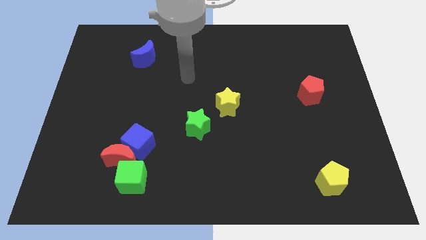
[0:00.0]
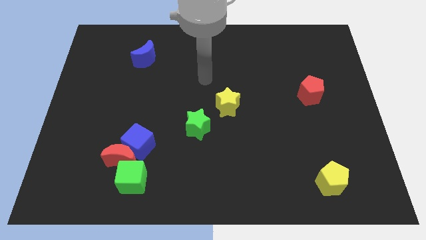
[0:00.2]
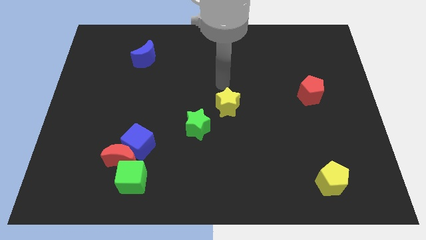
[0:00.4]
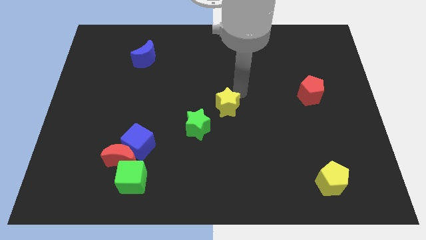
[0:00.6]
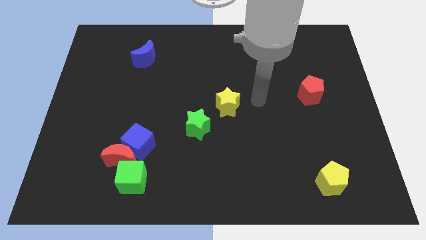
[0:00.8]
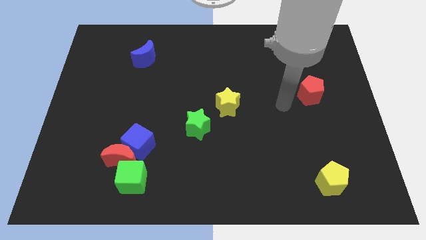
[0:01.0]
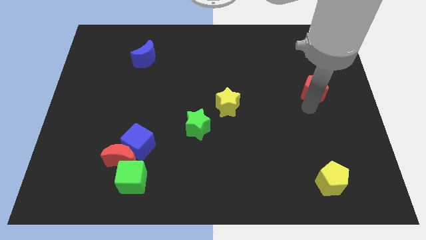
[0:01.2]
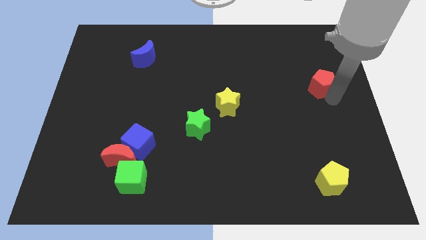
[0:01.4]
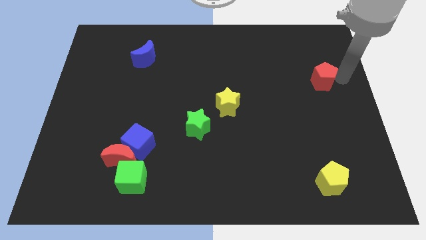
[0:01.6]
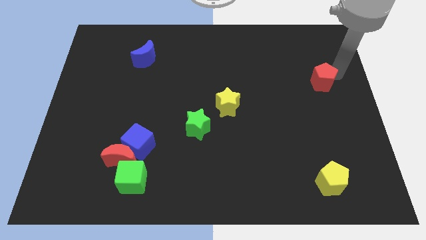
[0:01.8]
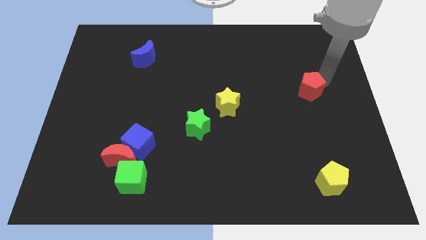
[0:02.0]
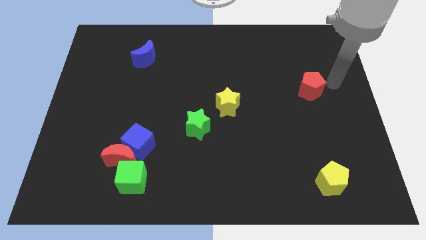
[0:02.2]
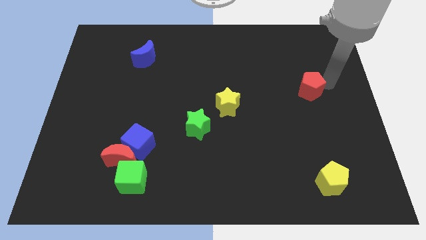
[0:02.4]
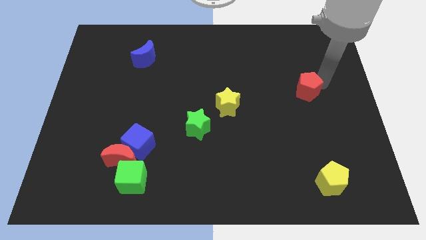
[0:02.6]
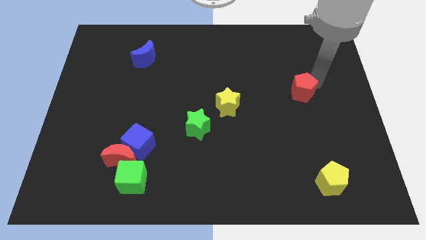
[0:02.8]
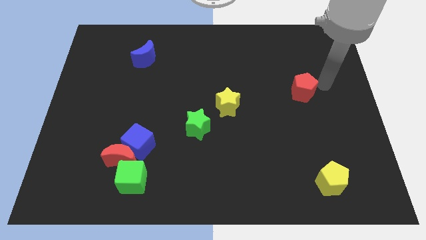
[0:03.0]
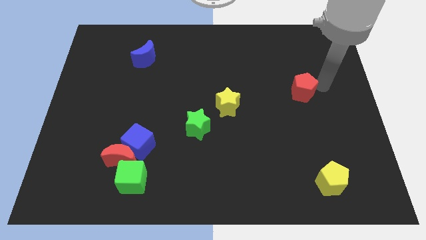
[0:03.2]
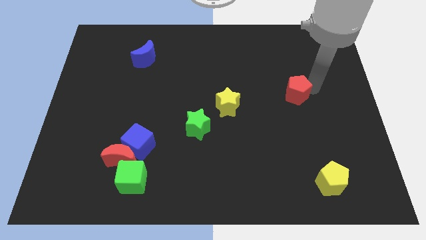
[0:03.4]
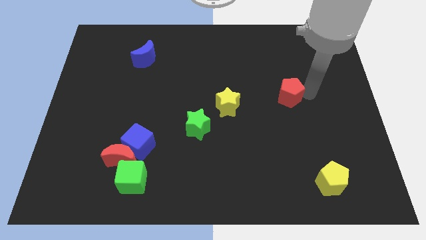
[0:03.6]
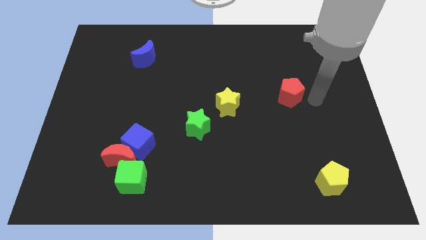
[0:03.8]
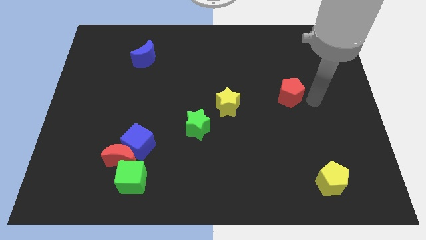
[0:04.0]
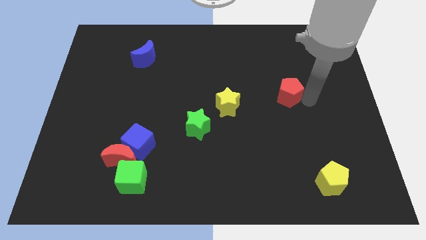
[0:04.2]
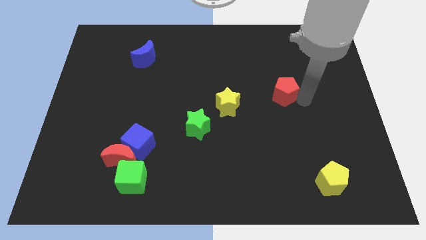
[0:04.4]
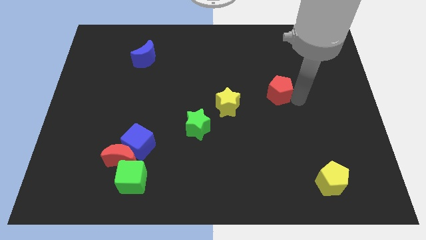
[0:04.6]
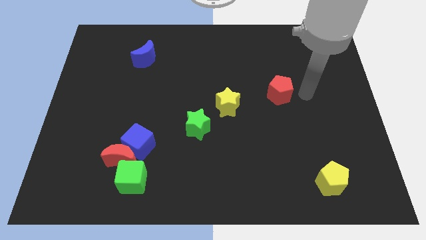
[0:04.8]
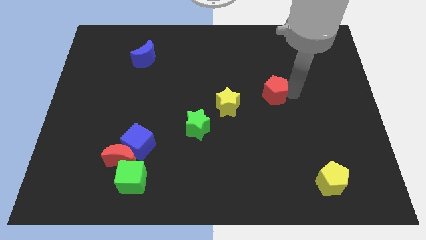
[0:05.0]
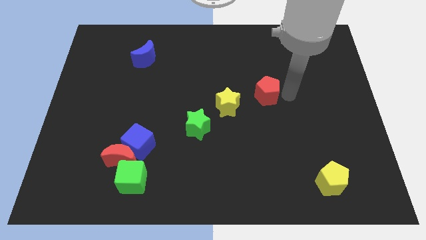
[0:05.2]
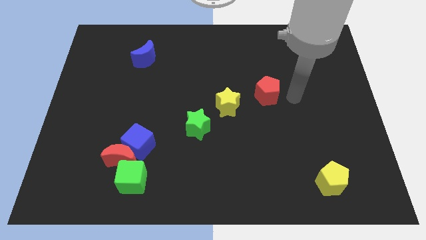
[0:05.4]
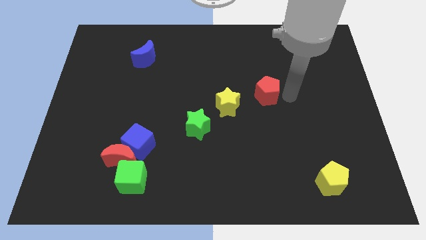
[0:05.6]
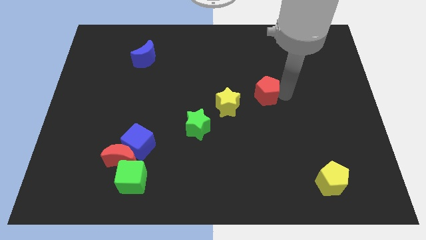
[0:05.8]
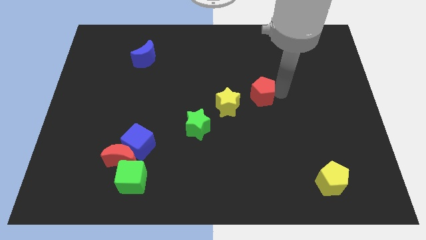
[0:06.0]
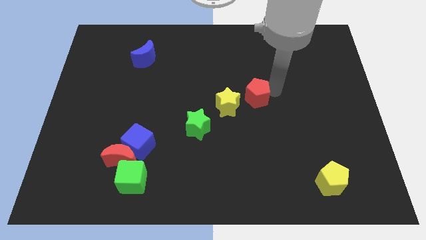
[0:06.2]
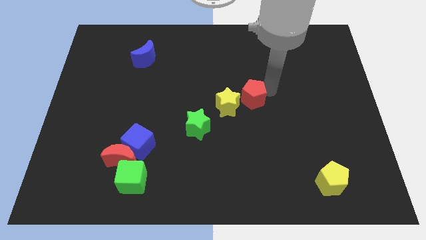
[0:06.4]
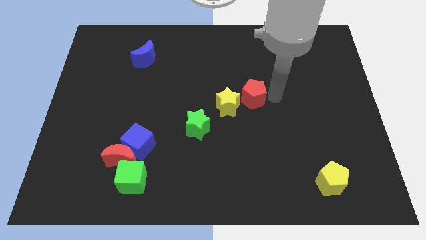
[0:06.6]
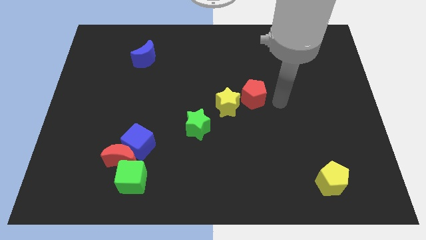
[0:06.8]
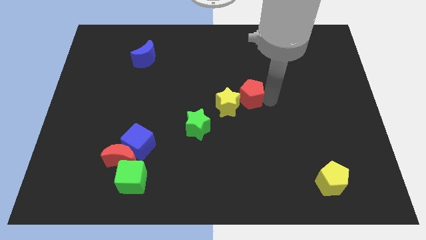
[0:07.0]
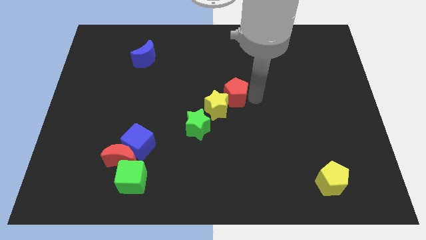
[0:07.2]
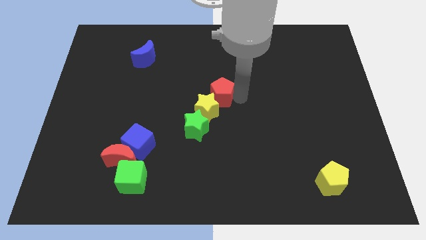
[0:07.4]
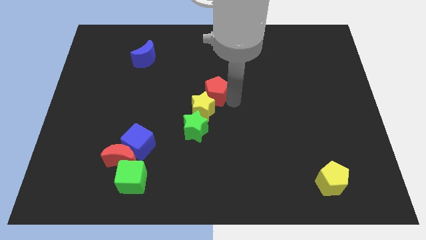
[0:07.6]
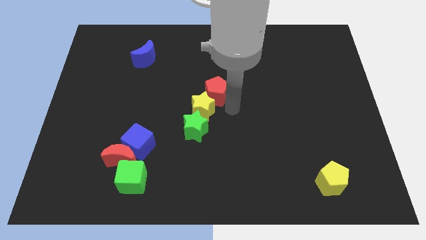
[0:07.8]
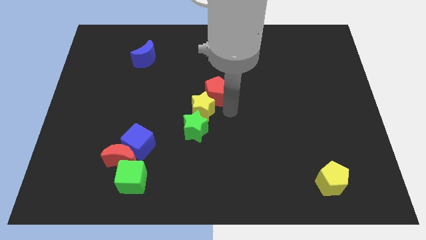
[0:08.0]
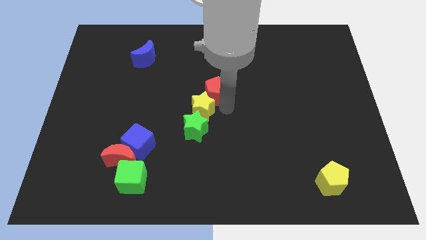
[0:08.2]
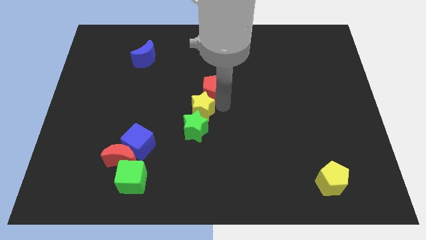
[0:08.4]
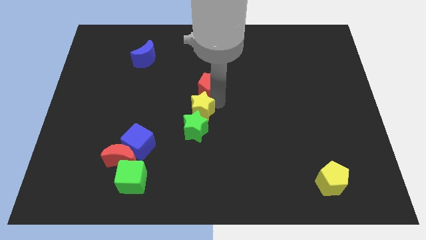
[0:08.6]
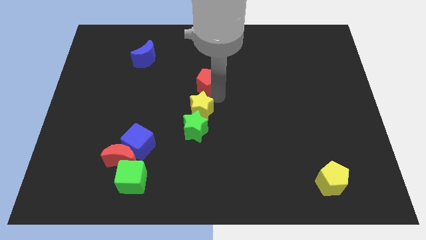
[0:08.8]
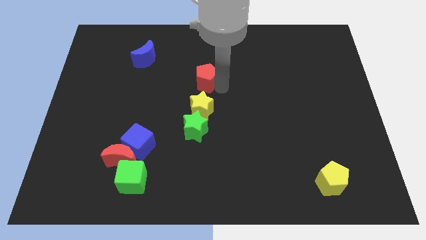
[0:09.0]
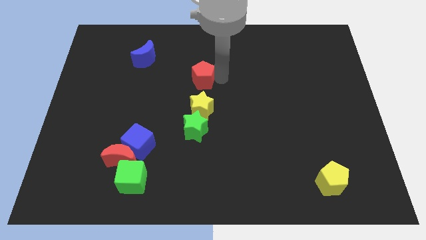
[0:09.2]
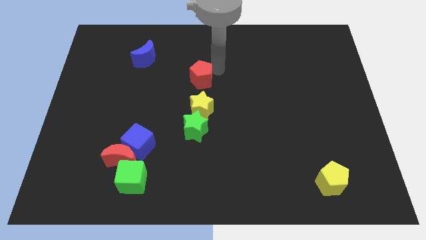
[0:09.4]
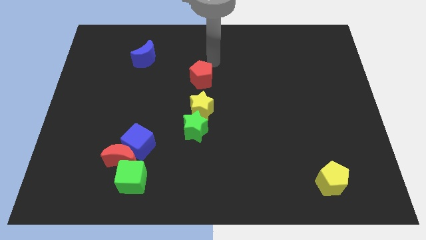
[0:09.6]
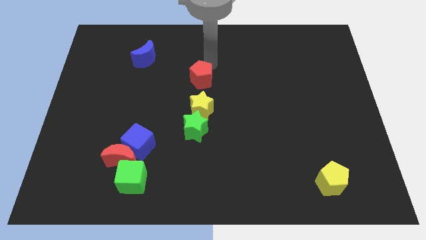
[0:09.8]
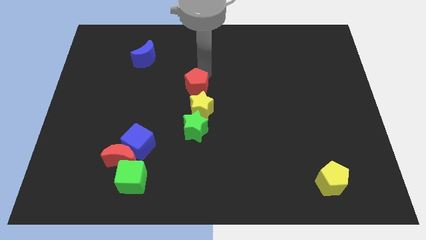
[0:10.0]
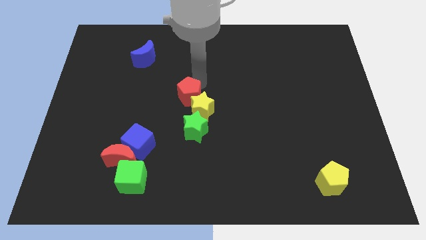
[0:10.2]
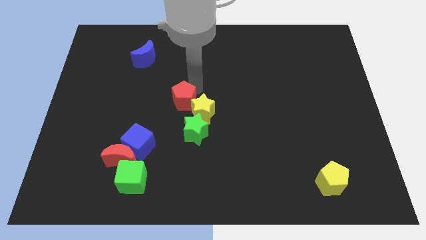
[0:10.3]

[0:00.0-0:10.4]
move the red pentagon diagonally up and to the left of the green star

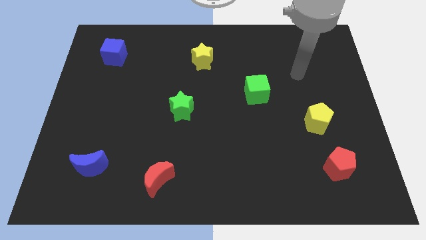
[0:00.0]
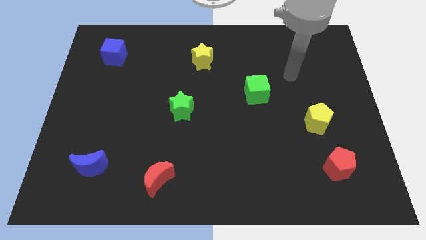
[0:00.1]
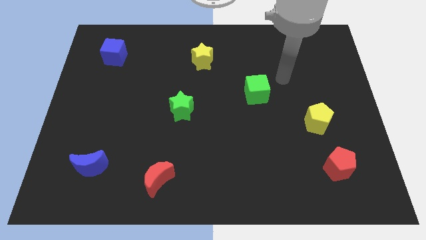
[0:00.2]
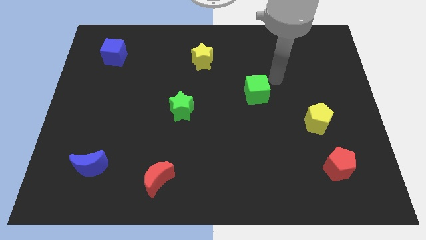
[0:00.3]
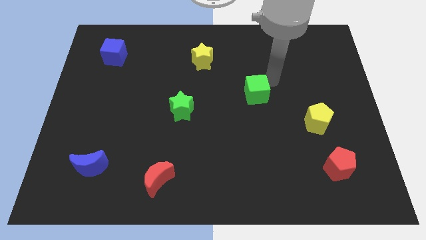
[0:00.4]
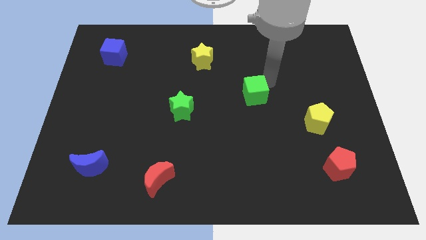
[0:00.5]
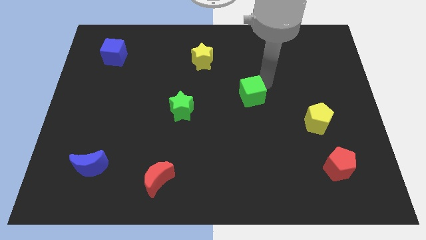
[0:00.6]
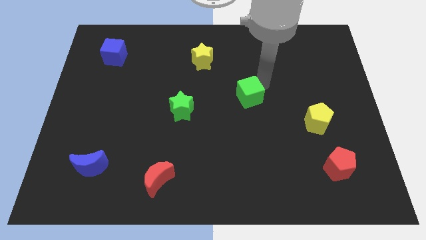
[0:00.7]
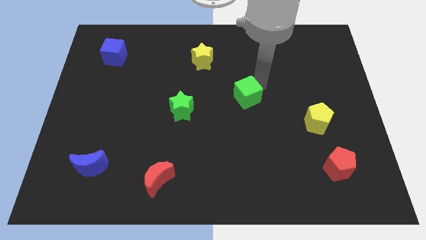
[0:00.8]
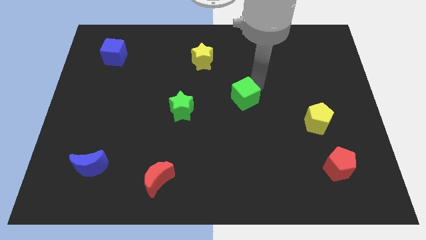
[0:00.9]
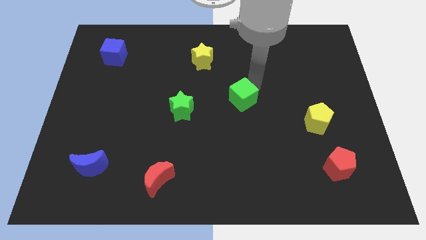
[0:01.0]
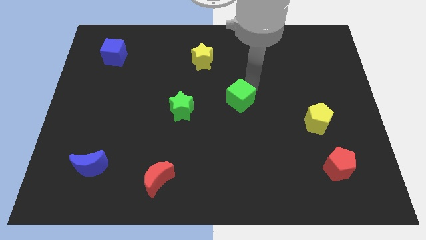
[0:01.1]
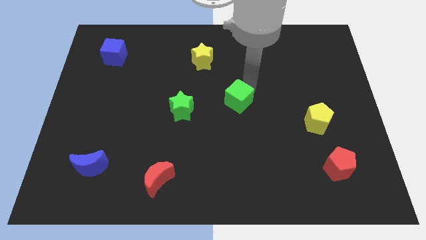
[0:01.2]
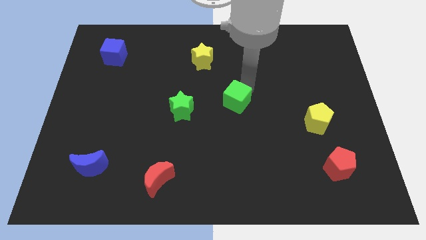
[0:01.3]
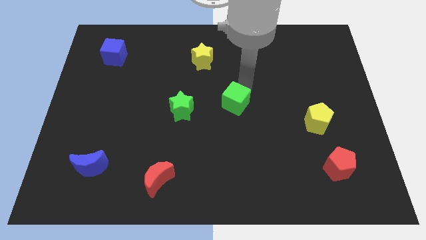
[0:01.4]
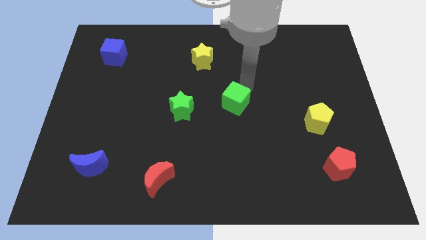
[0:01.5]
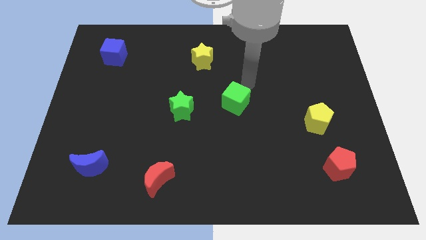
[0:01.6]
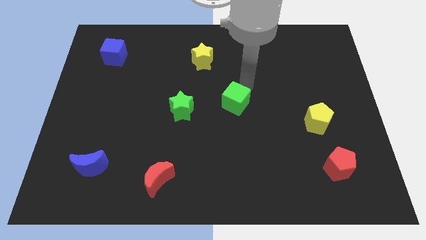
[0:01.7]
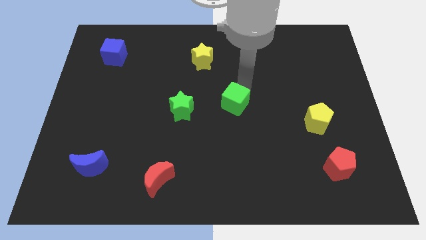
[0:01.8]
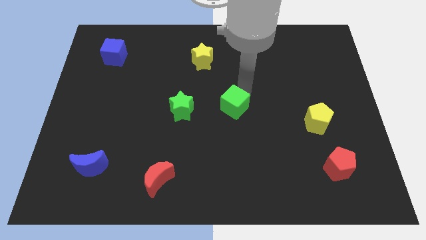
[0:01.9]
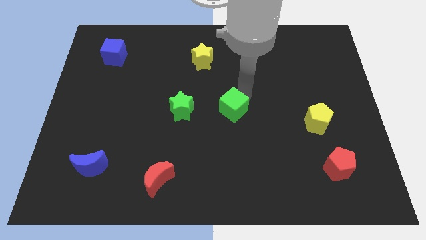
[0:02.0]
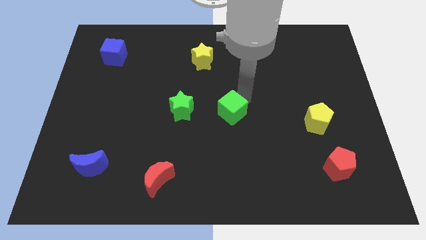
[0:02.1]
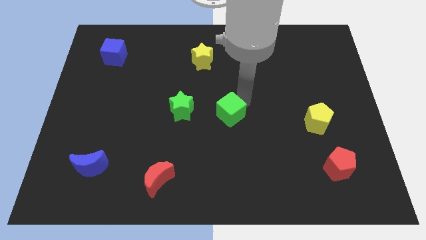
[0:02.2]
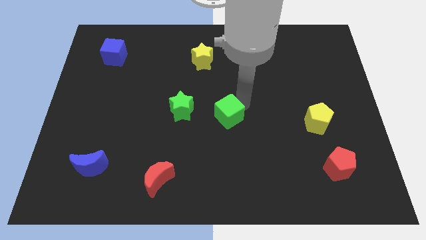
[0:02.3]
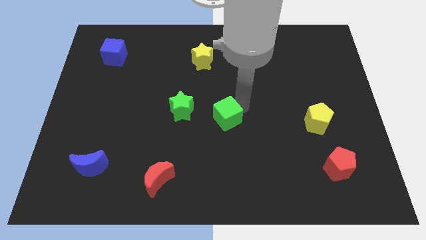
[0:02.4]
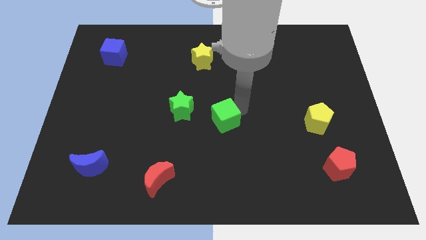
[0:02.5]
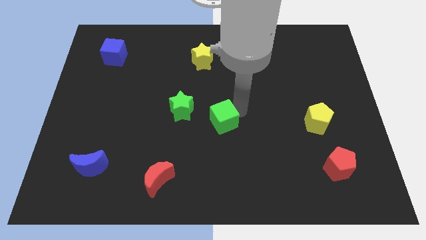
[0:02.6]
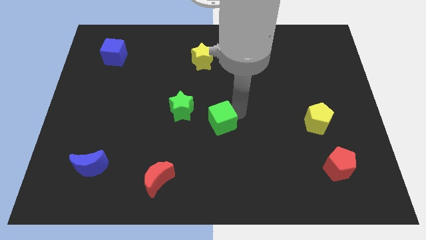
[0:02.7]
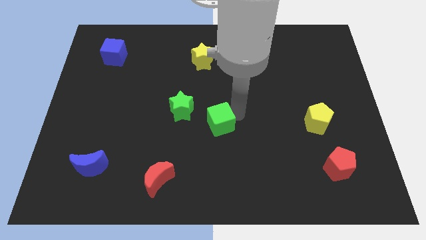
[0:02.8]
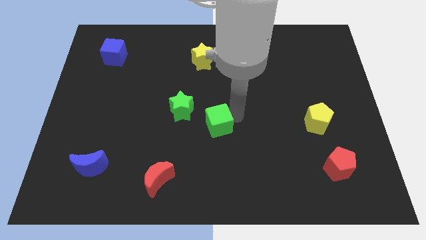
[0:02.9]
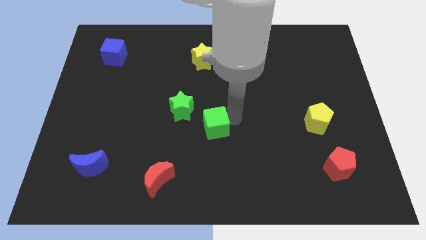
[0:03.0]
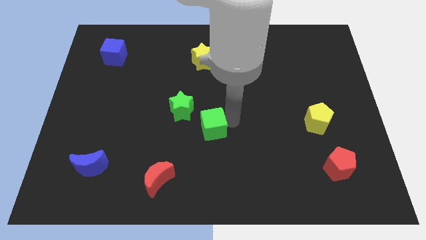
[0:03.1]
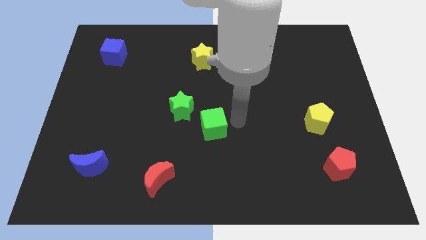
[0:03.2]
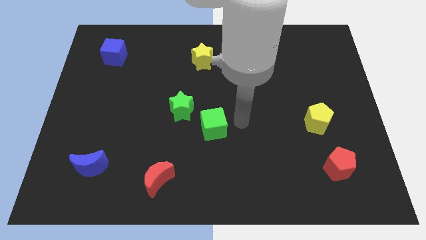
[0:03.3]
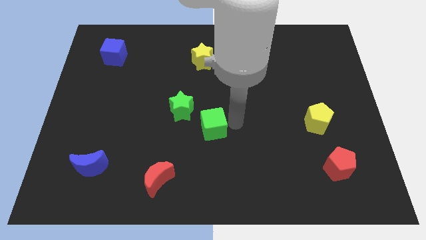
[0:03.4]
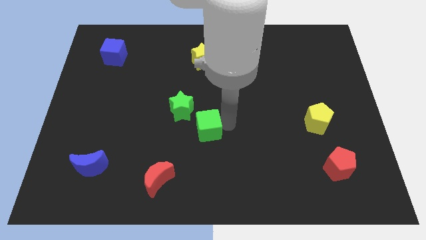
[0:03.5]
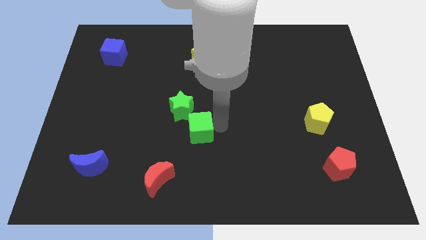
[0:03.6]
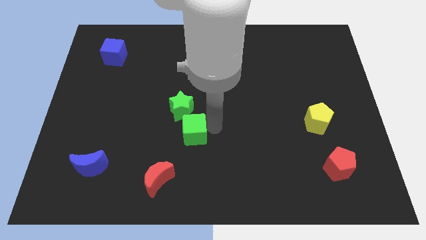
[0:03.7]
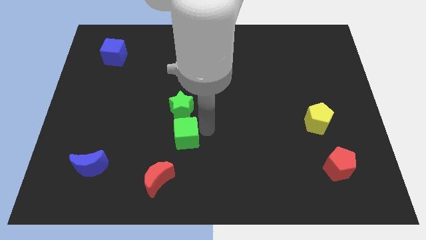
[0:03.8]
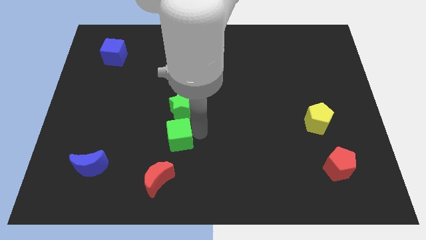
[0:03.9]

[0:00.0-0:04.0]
move the green cube to the top of the red moon
